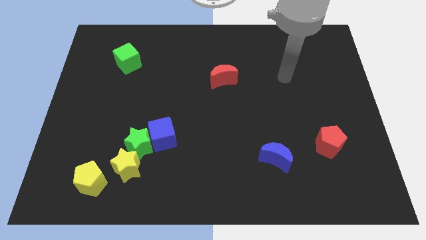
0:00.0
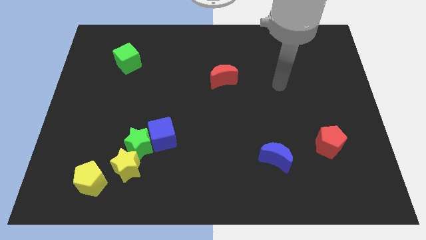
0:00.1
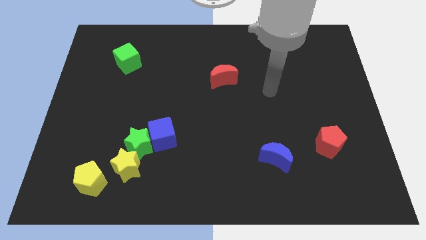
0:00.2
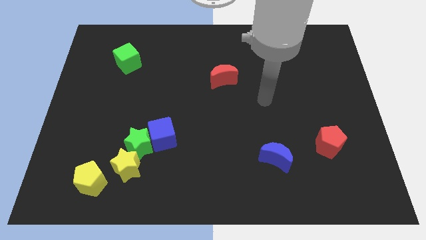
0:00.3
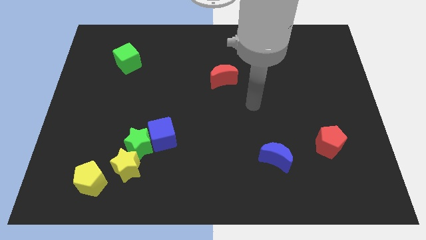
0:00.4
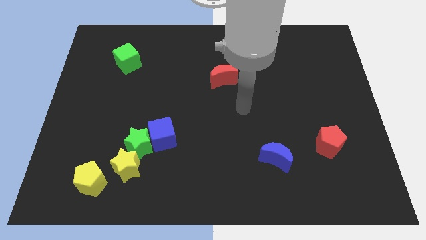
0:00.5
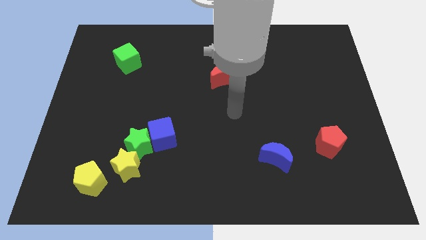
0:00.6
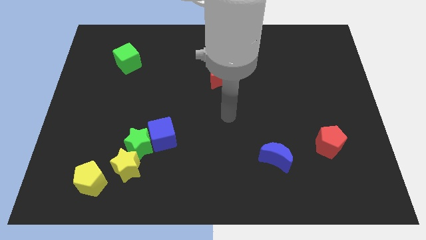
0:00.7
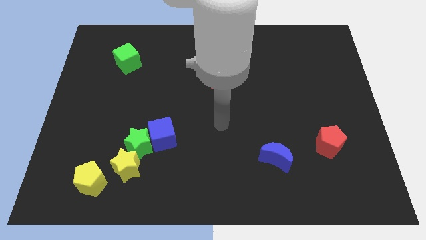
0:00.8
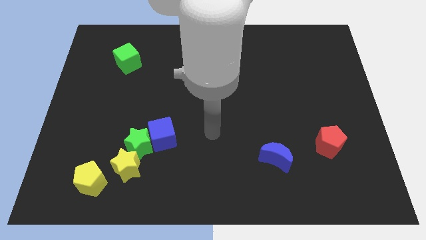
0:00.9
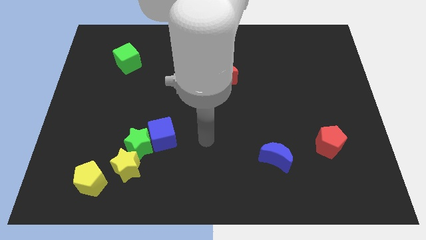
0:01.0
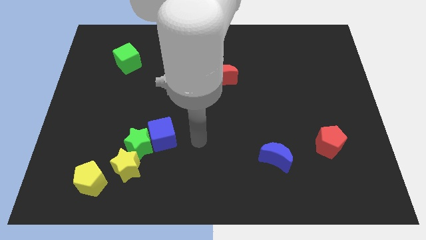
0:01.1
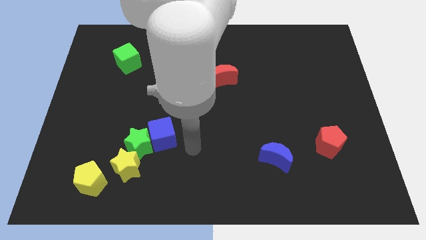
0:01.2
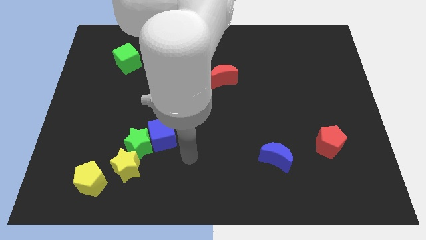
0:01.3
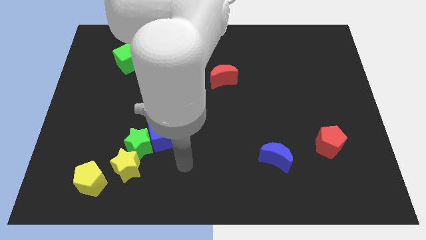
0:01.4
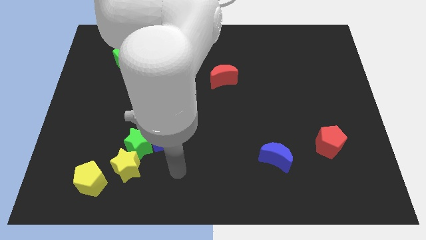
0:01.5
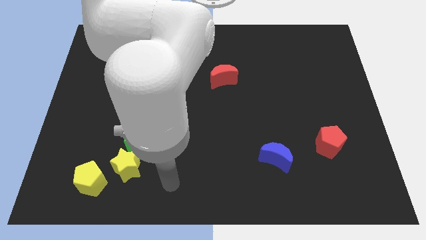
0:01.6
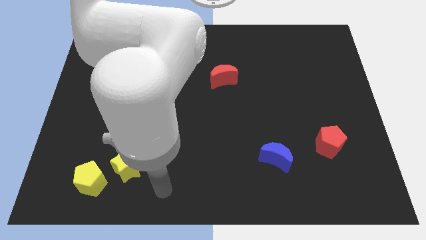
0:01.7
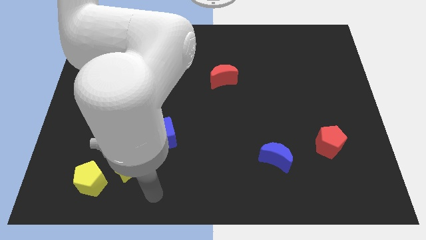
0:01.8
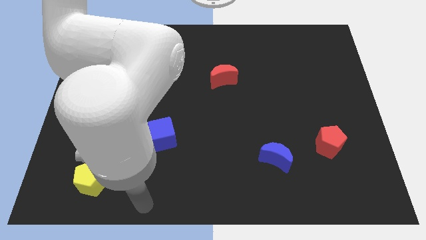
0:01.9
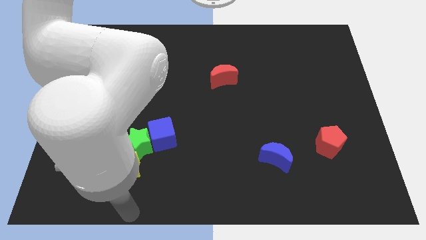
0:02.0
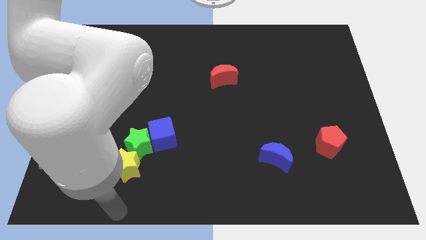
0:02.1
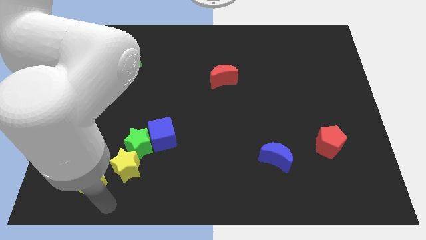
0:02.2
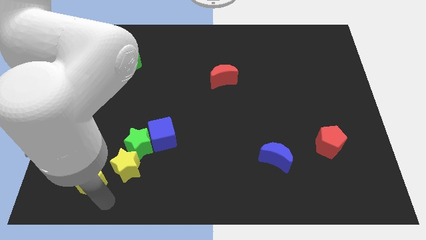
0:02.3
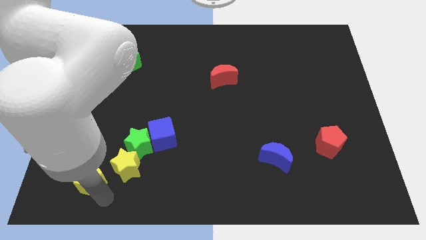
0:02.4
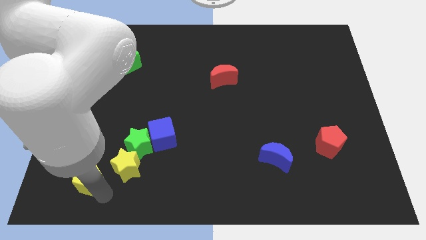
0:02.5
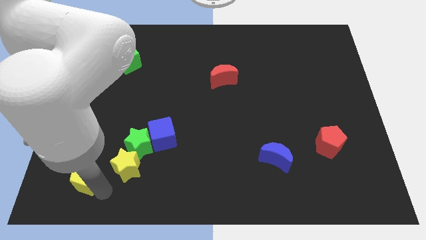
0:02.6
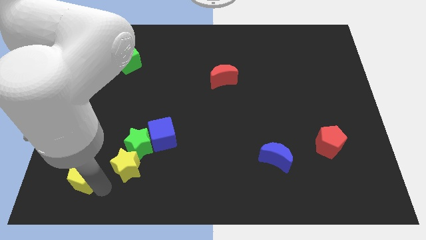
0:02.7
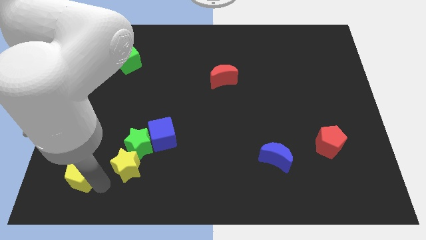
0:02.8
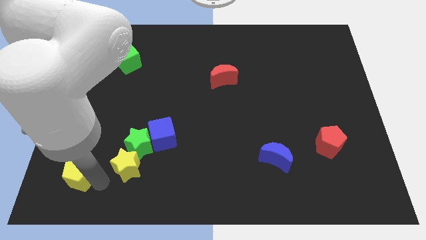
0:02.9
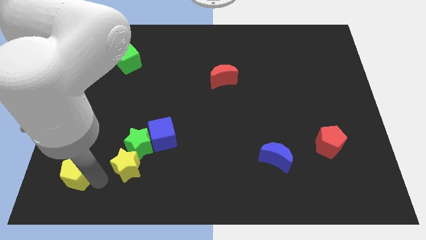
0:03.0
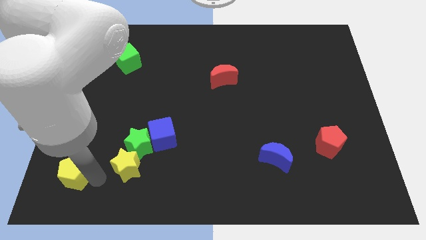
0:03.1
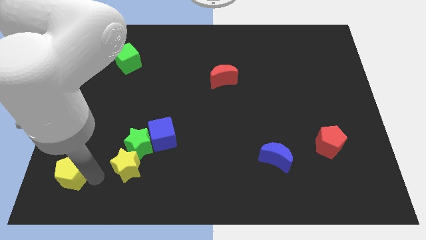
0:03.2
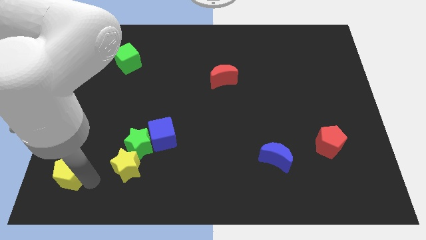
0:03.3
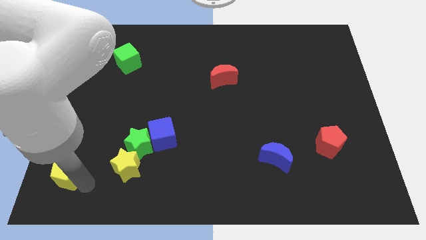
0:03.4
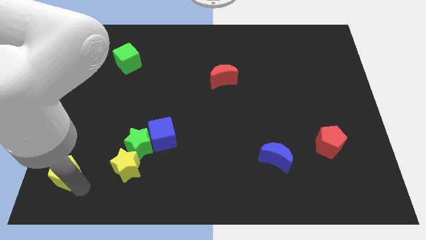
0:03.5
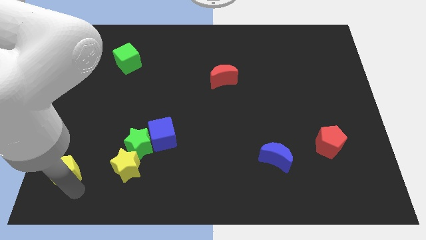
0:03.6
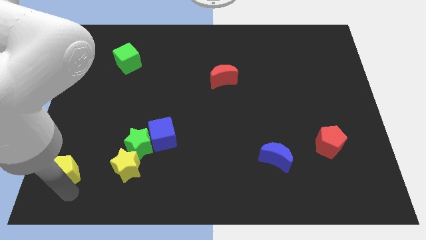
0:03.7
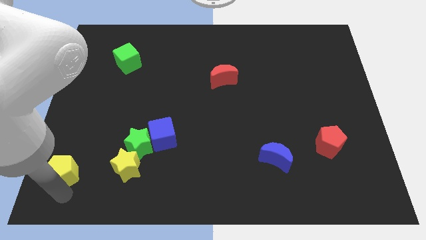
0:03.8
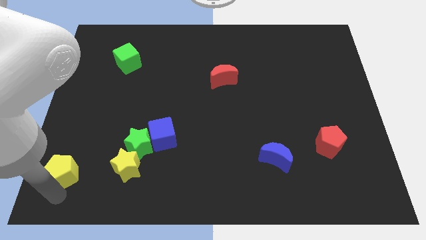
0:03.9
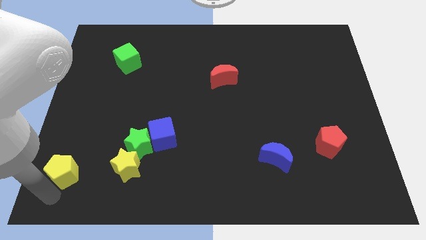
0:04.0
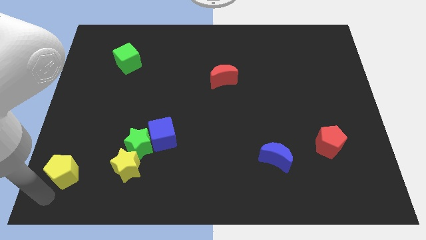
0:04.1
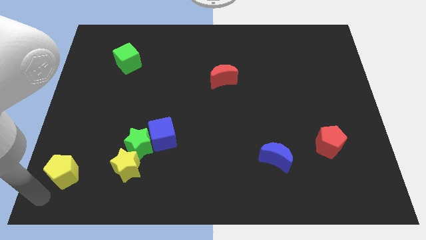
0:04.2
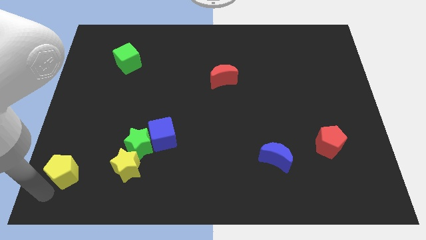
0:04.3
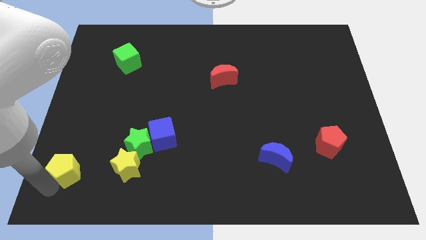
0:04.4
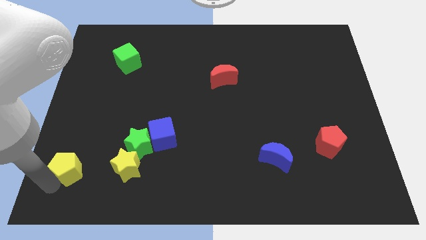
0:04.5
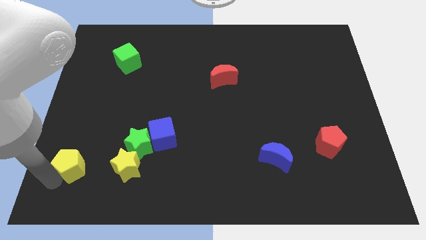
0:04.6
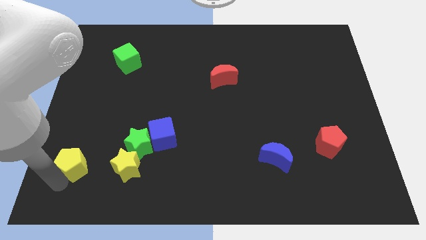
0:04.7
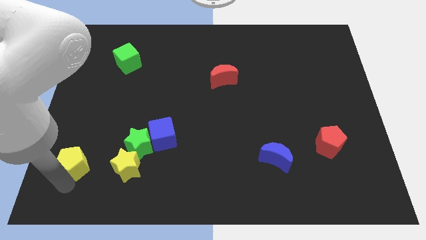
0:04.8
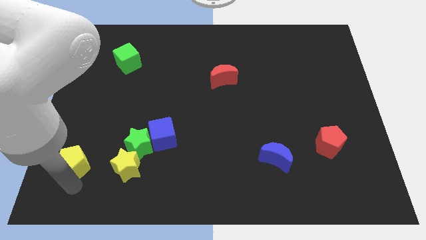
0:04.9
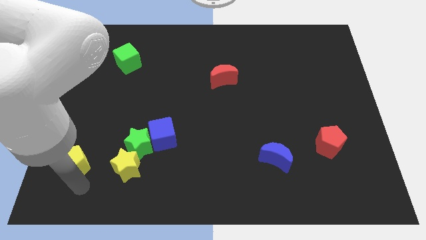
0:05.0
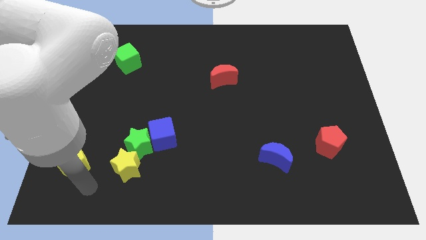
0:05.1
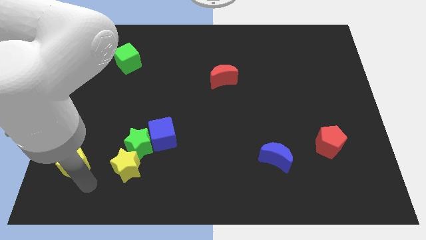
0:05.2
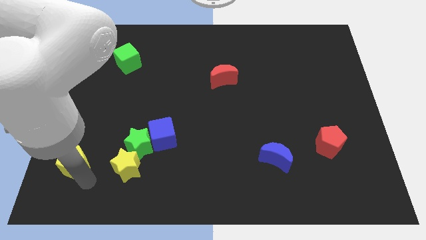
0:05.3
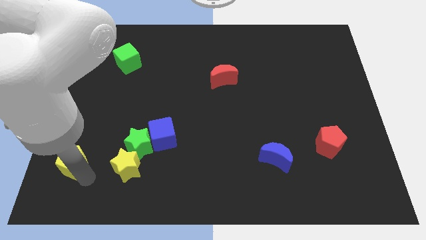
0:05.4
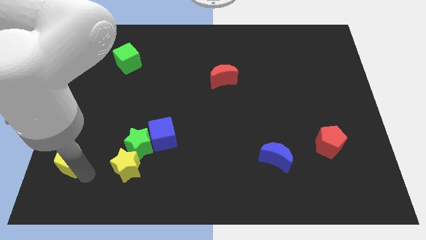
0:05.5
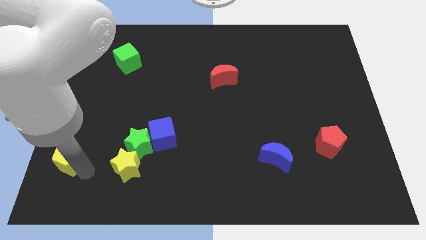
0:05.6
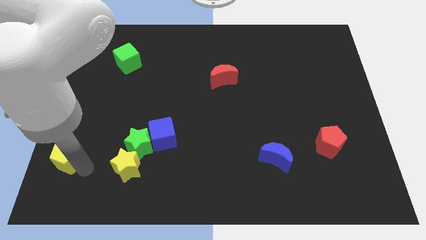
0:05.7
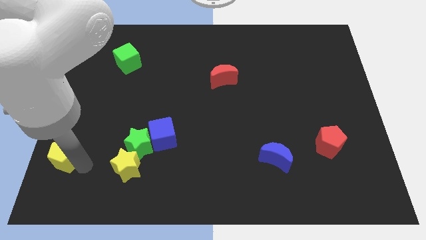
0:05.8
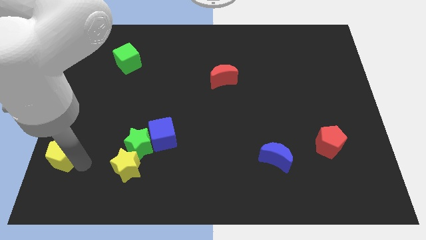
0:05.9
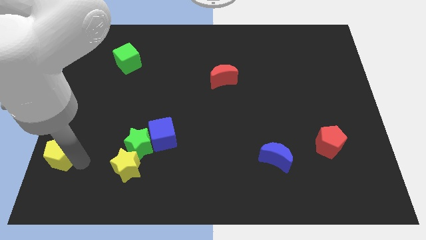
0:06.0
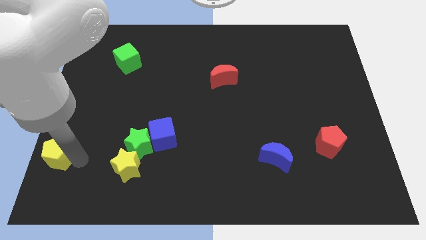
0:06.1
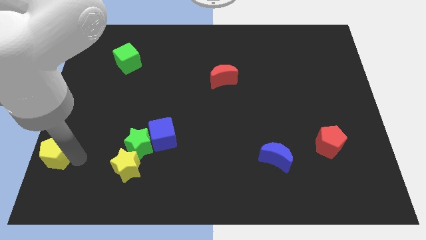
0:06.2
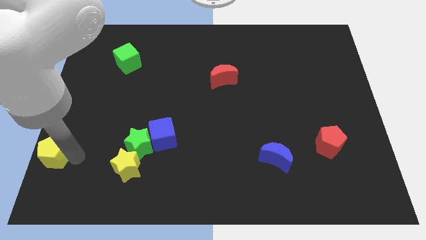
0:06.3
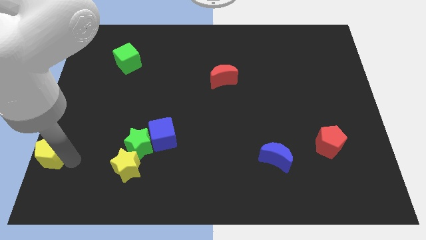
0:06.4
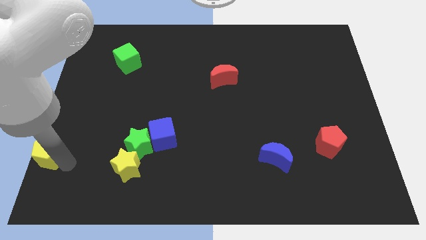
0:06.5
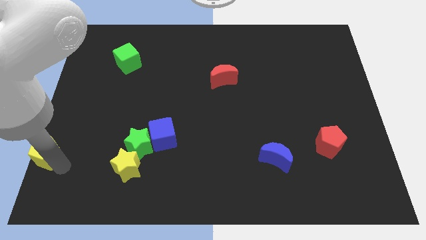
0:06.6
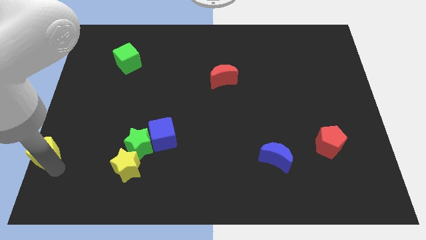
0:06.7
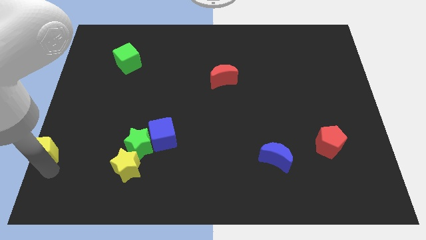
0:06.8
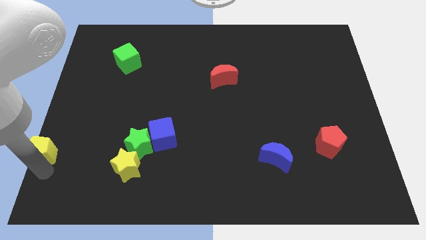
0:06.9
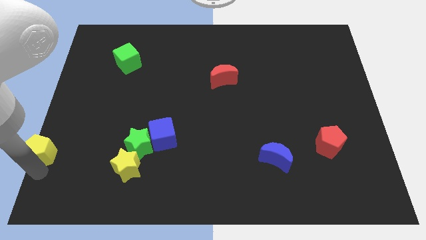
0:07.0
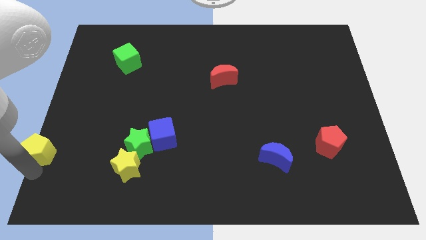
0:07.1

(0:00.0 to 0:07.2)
push the yellow pentagon to the left side of the board

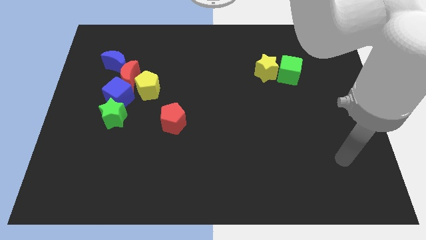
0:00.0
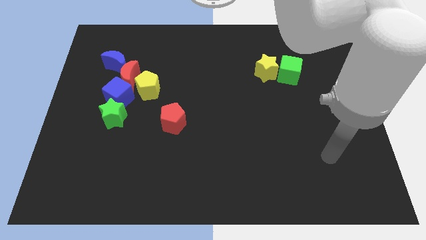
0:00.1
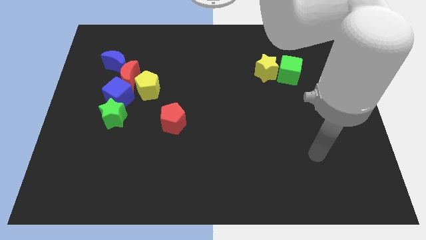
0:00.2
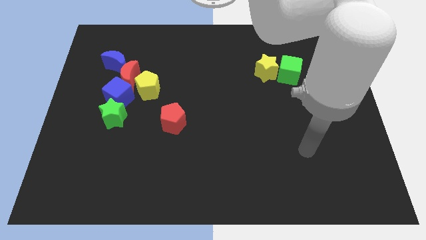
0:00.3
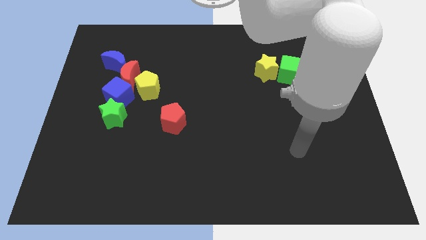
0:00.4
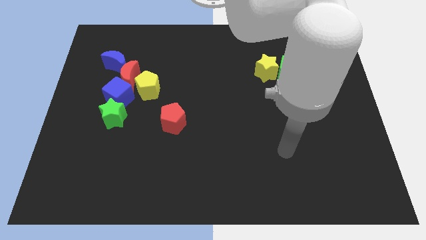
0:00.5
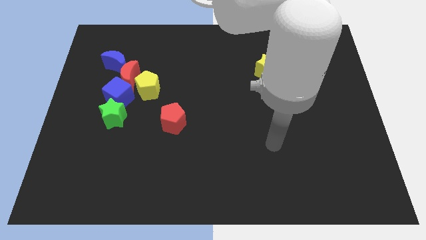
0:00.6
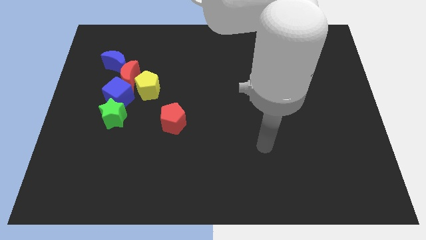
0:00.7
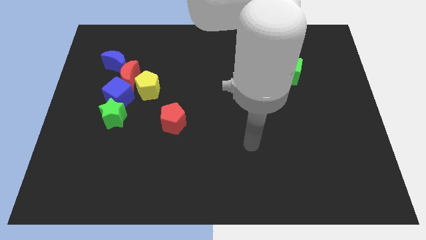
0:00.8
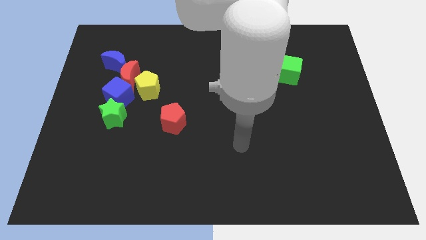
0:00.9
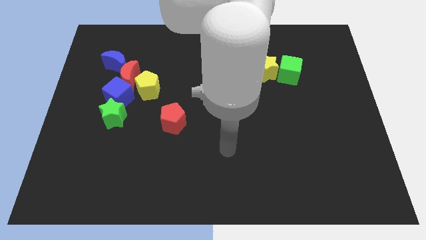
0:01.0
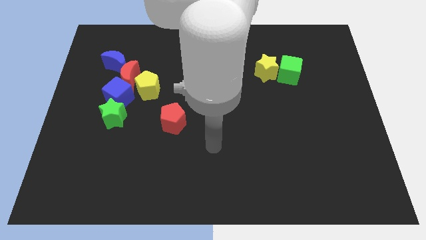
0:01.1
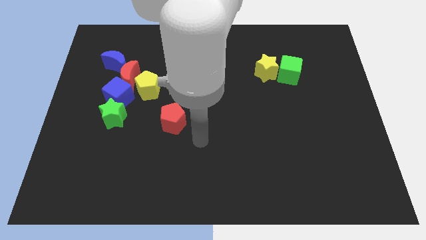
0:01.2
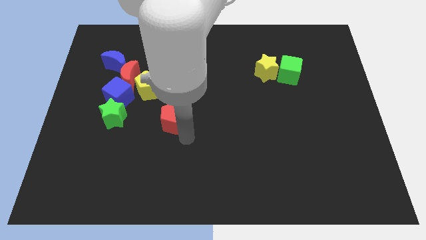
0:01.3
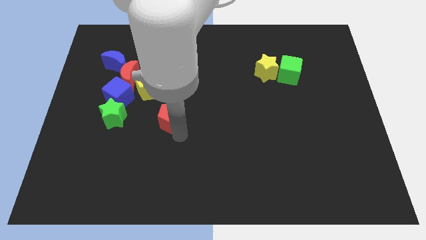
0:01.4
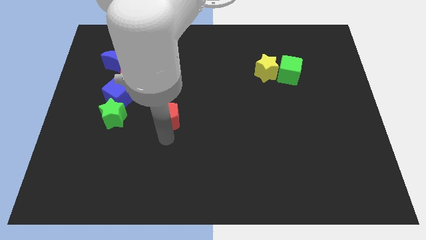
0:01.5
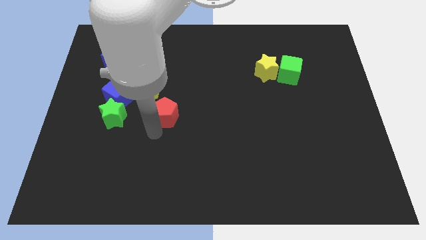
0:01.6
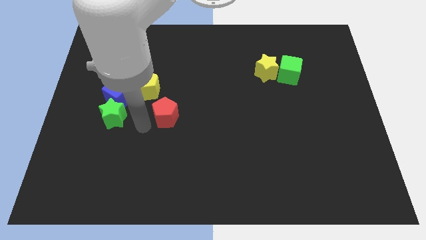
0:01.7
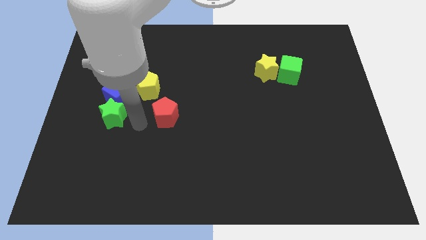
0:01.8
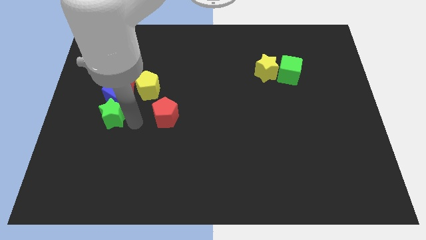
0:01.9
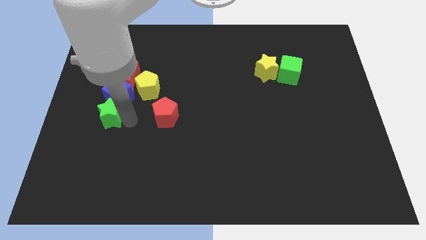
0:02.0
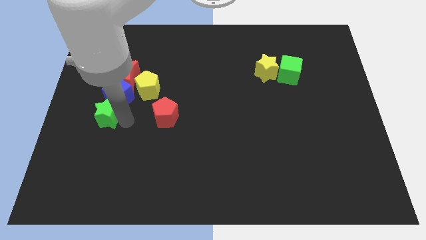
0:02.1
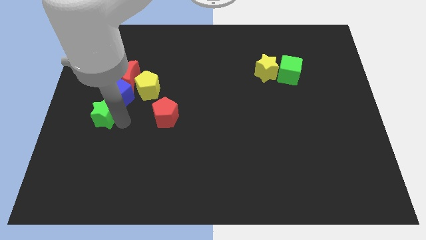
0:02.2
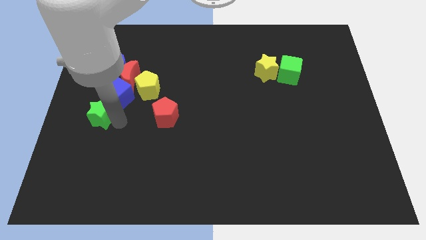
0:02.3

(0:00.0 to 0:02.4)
move the green star to the left side
